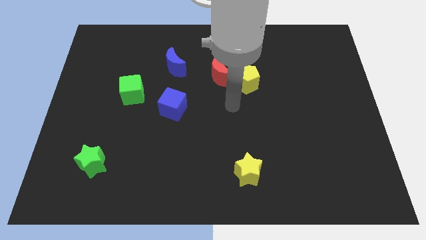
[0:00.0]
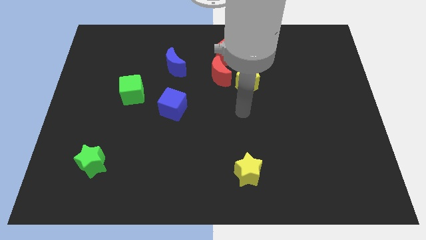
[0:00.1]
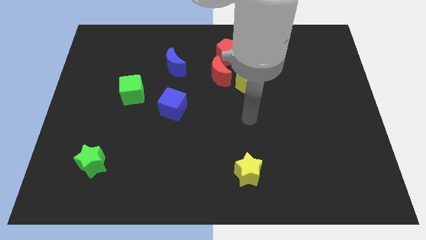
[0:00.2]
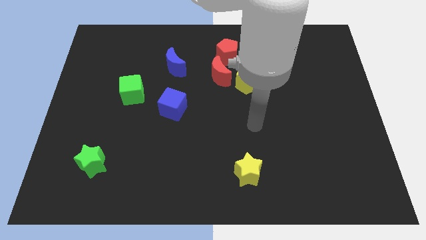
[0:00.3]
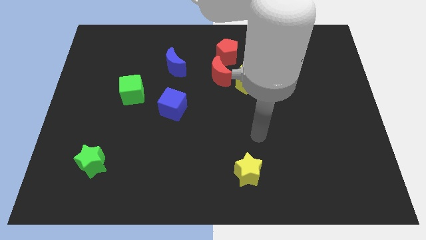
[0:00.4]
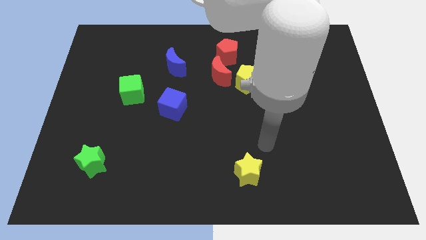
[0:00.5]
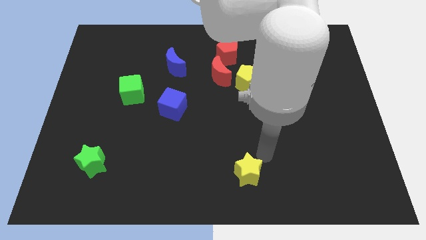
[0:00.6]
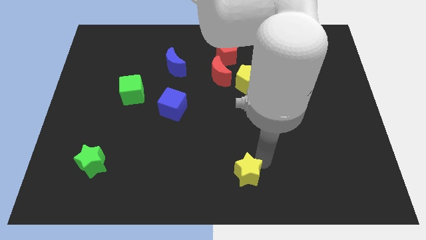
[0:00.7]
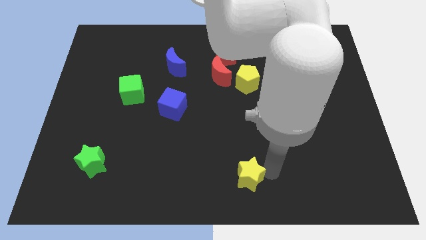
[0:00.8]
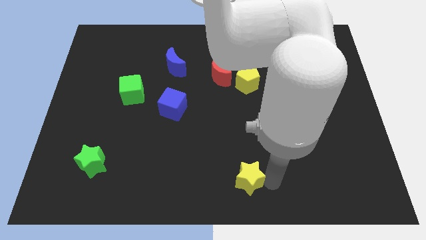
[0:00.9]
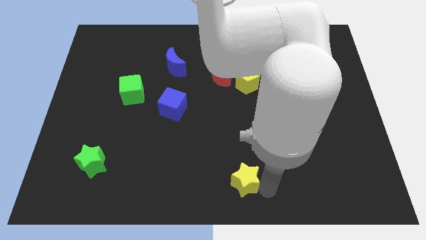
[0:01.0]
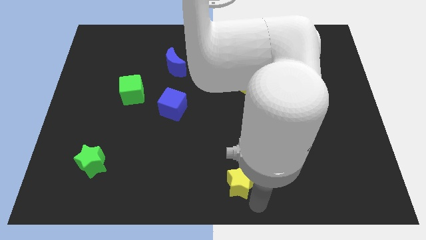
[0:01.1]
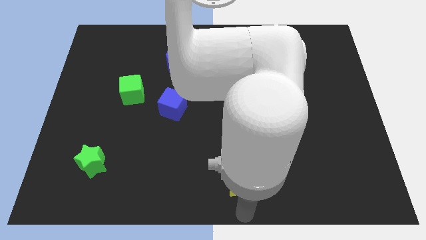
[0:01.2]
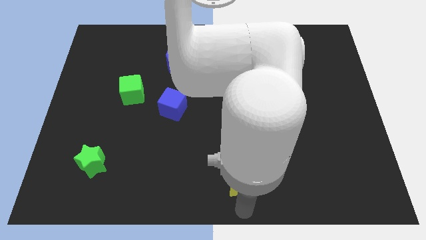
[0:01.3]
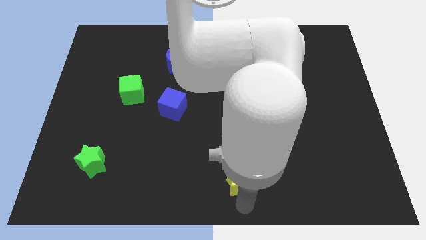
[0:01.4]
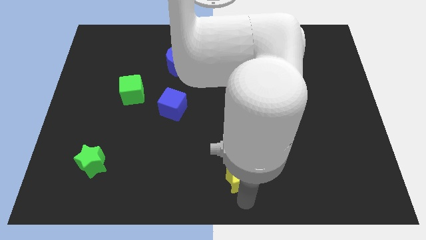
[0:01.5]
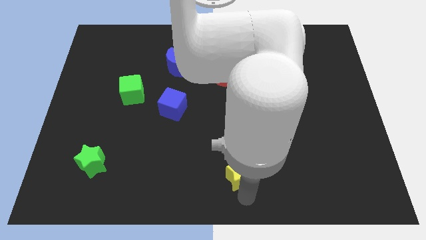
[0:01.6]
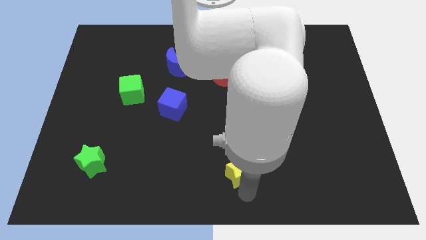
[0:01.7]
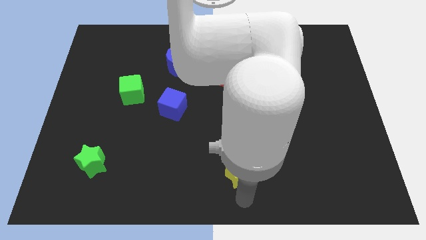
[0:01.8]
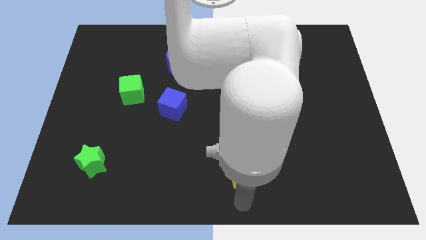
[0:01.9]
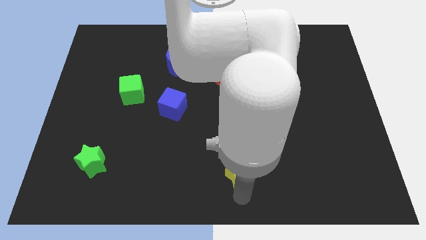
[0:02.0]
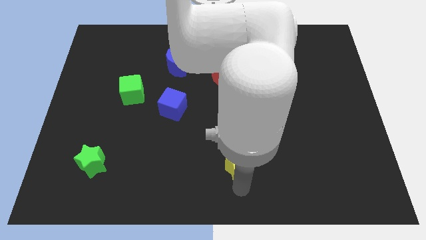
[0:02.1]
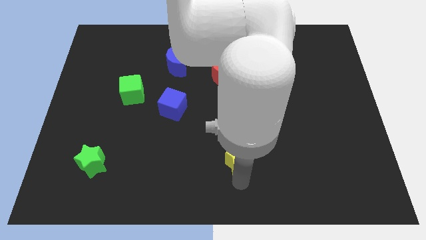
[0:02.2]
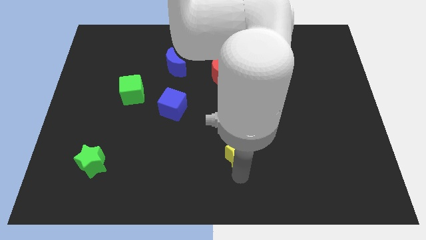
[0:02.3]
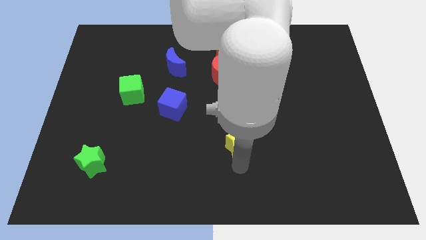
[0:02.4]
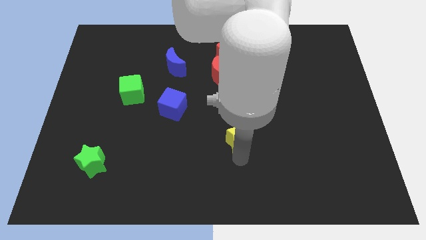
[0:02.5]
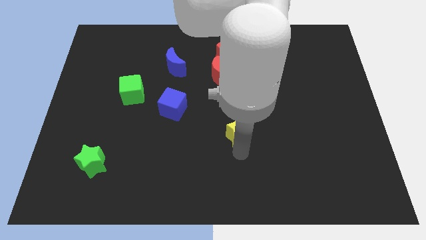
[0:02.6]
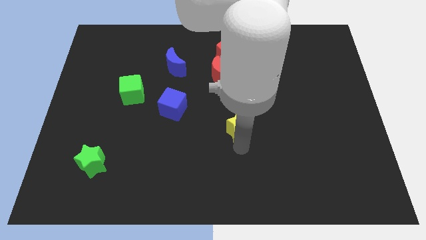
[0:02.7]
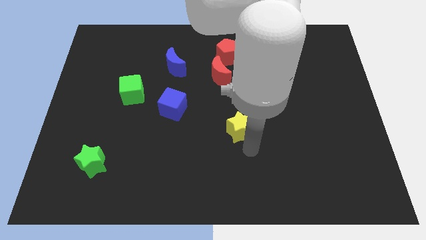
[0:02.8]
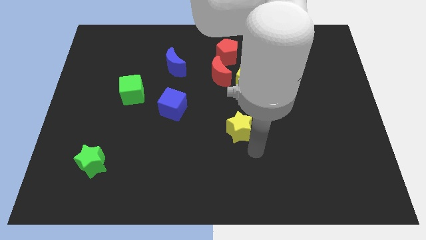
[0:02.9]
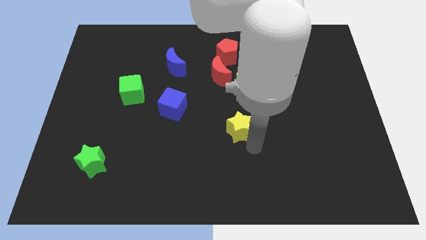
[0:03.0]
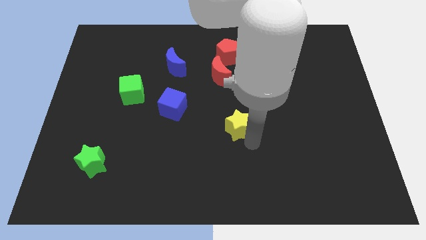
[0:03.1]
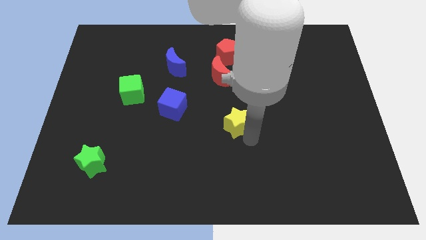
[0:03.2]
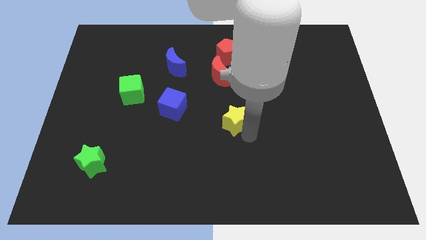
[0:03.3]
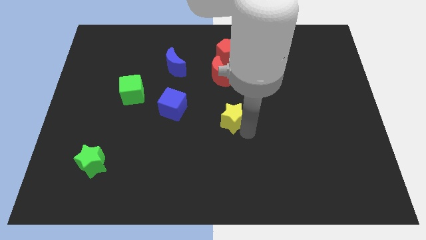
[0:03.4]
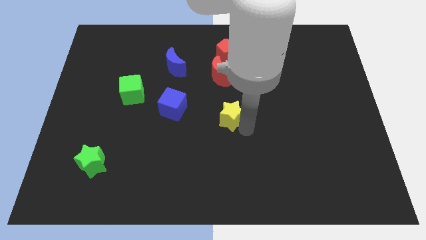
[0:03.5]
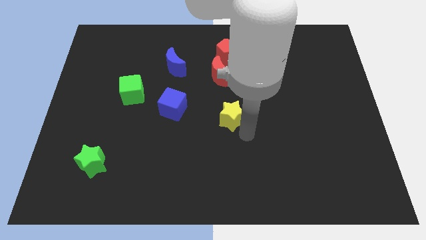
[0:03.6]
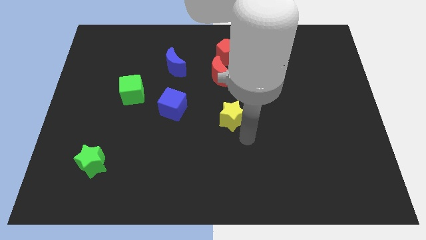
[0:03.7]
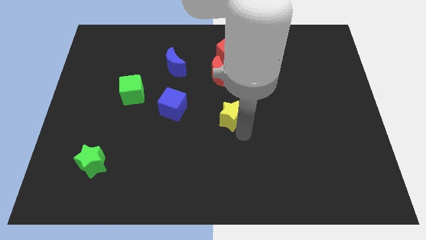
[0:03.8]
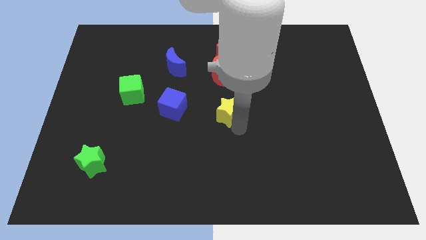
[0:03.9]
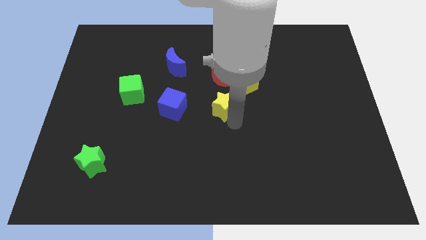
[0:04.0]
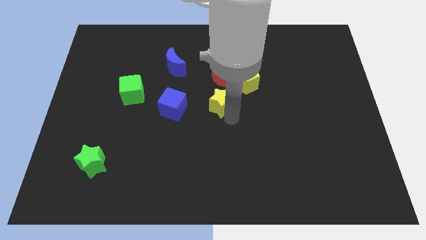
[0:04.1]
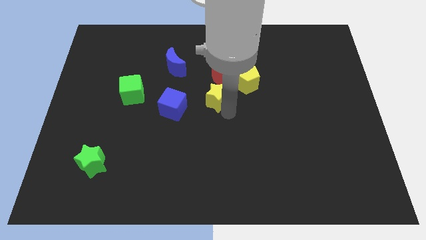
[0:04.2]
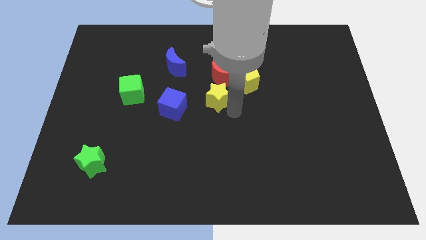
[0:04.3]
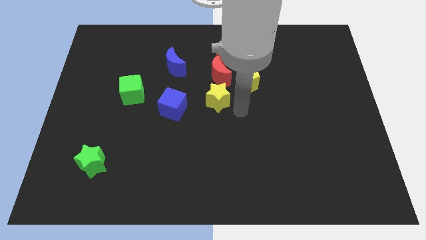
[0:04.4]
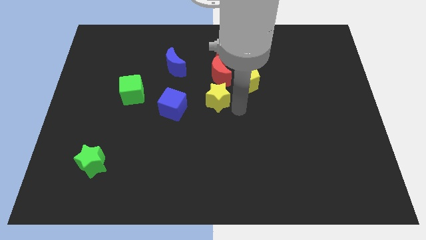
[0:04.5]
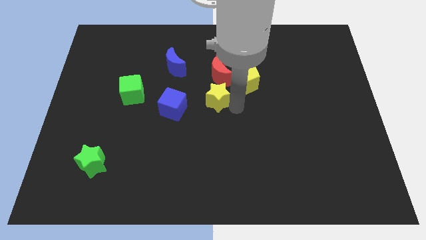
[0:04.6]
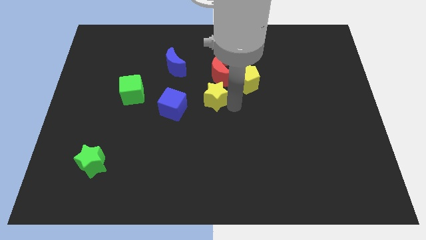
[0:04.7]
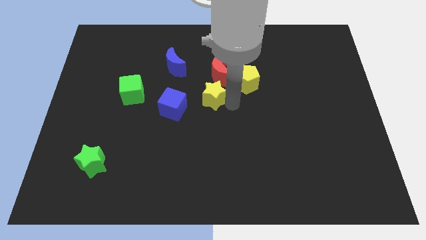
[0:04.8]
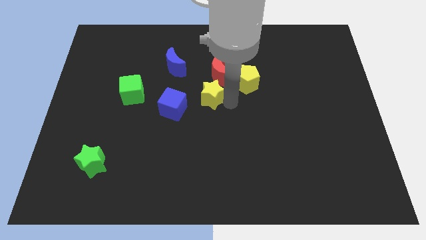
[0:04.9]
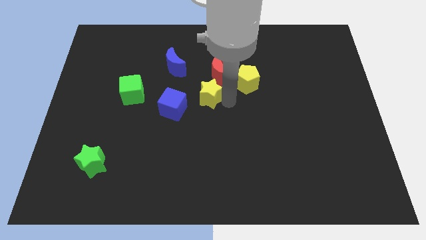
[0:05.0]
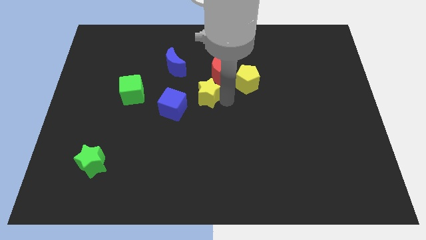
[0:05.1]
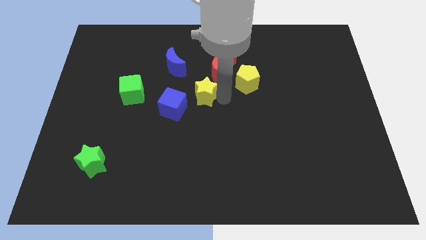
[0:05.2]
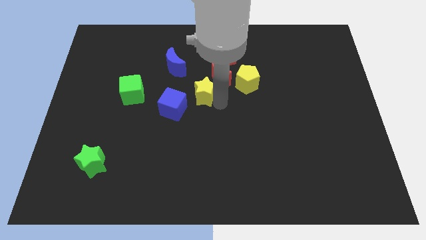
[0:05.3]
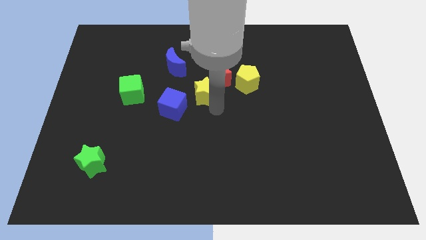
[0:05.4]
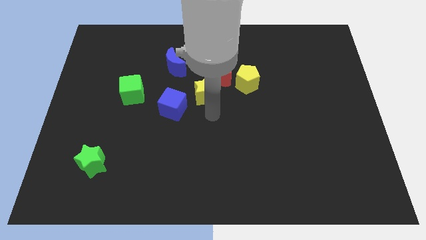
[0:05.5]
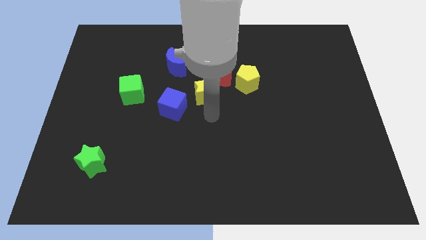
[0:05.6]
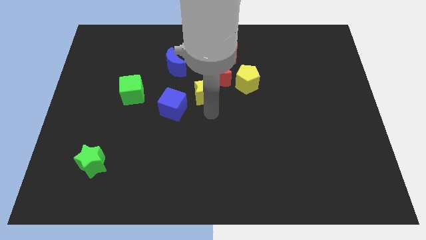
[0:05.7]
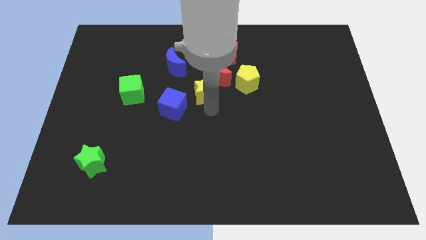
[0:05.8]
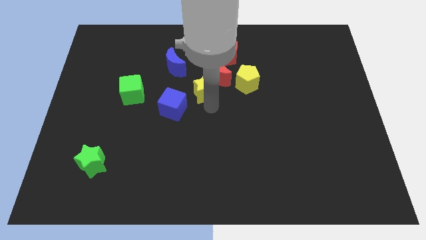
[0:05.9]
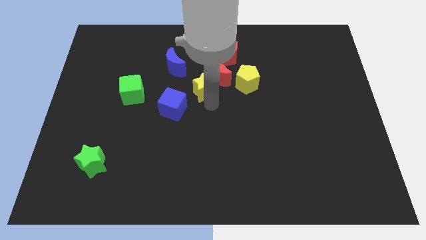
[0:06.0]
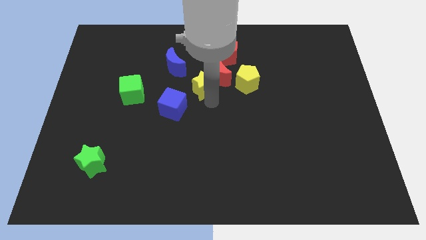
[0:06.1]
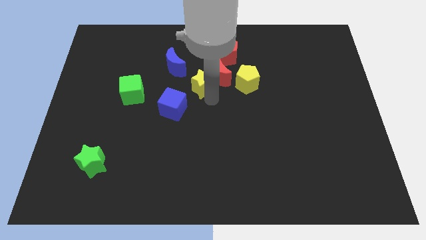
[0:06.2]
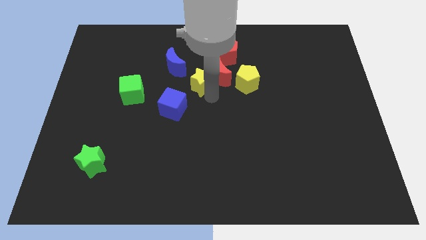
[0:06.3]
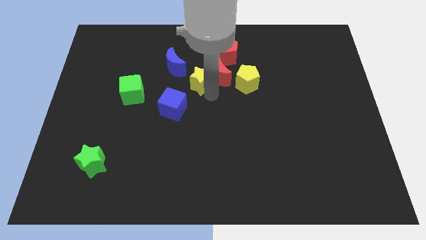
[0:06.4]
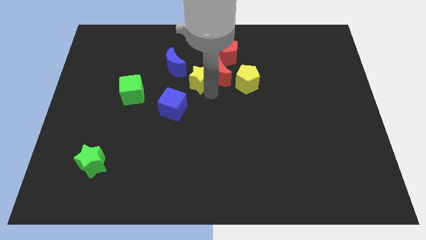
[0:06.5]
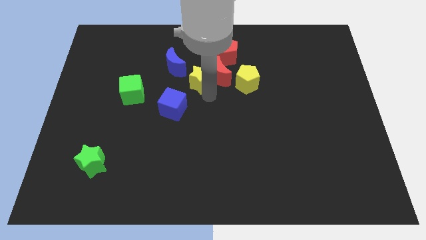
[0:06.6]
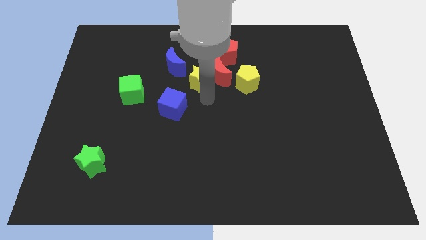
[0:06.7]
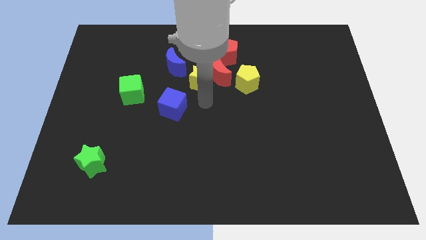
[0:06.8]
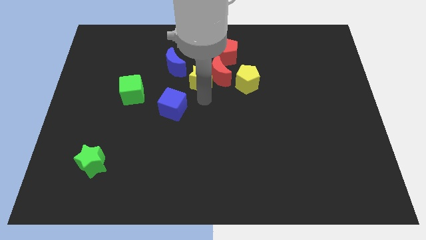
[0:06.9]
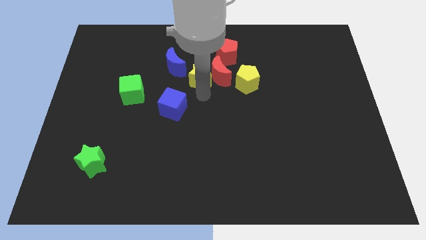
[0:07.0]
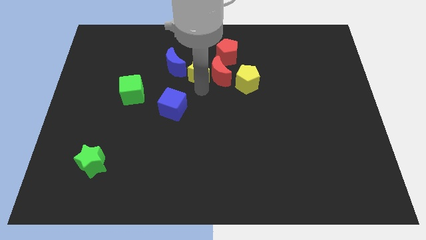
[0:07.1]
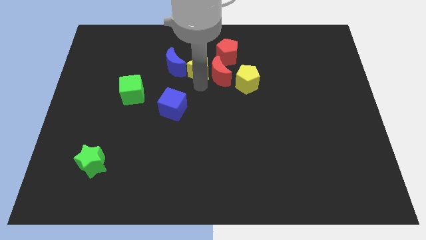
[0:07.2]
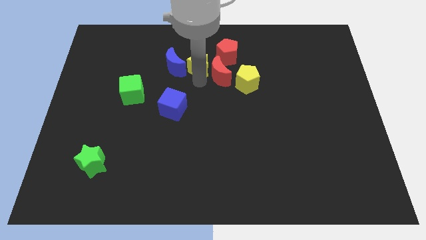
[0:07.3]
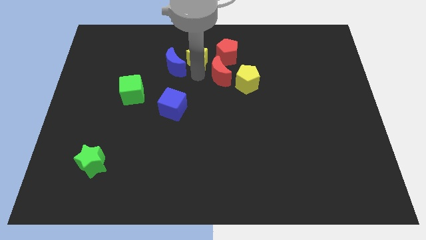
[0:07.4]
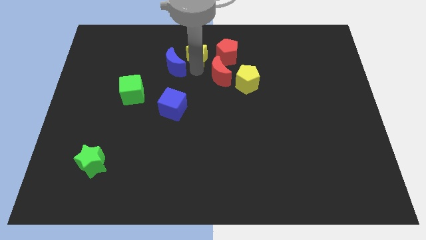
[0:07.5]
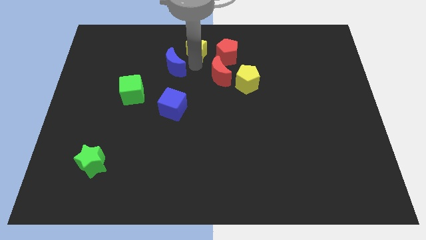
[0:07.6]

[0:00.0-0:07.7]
slide the yellow star to the top
